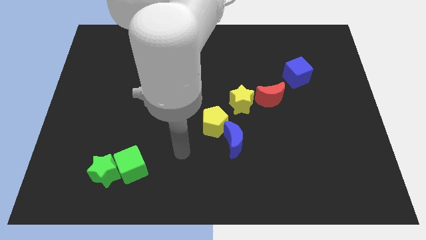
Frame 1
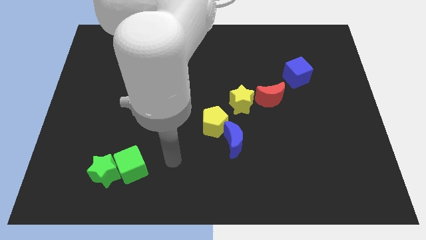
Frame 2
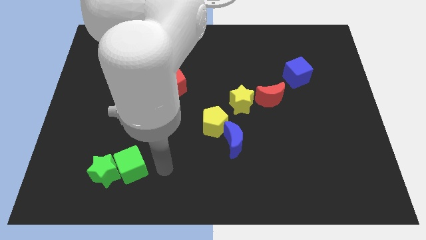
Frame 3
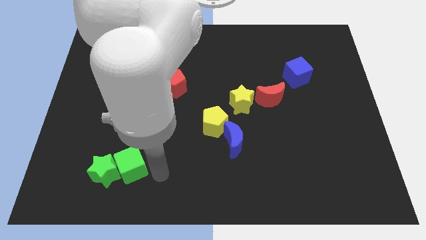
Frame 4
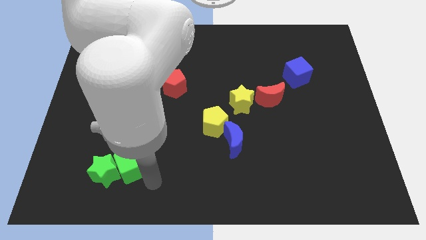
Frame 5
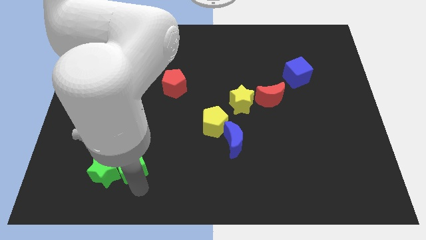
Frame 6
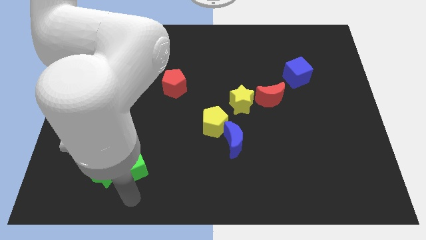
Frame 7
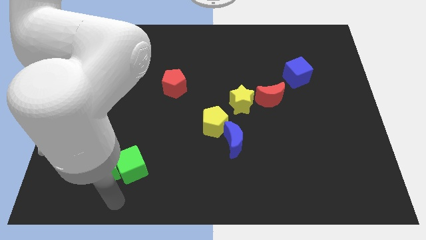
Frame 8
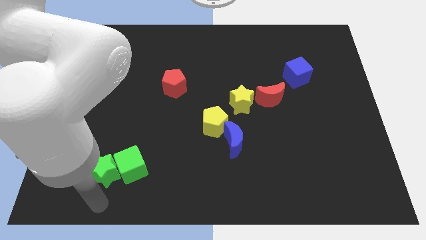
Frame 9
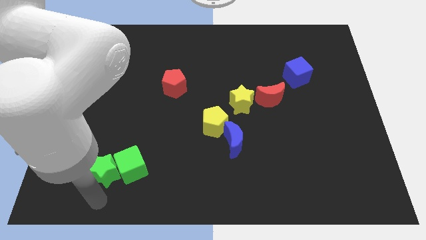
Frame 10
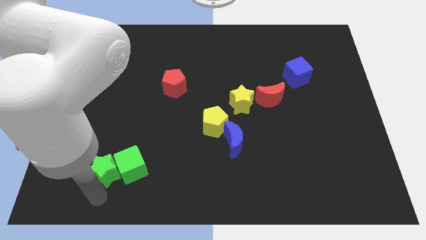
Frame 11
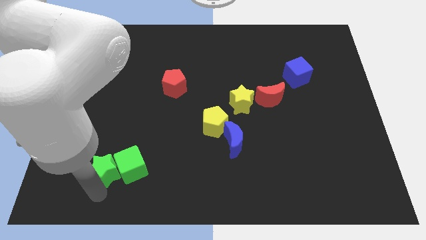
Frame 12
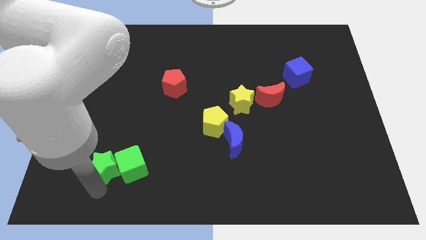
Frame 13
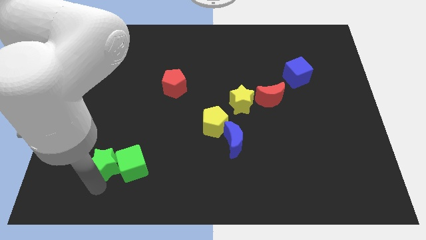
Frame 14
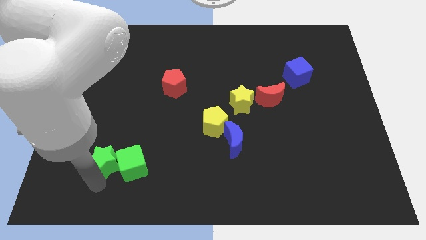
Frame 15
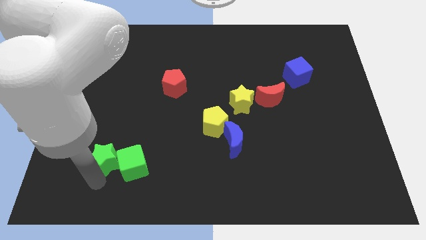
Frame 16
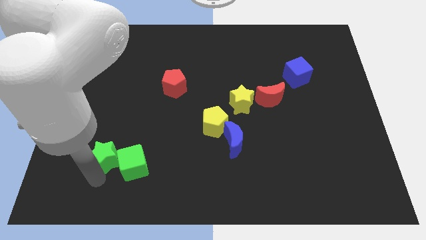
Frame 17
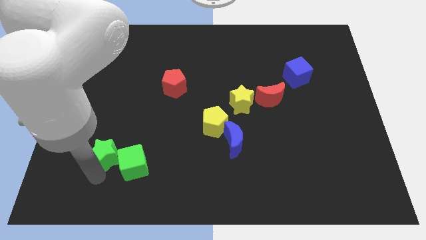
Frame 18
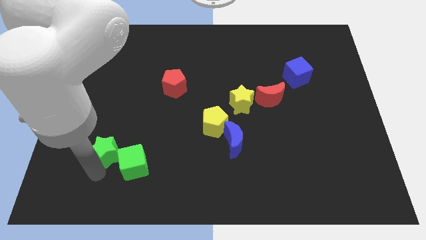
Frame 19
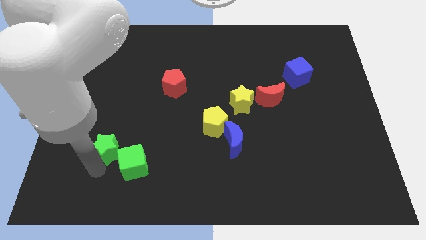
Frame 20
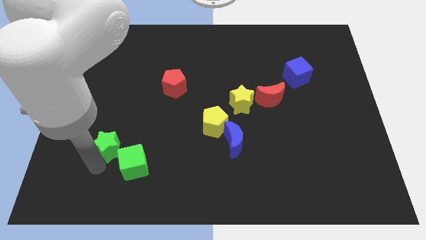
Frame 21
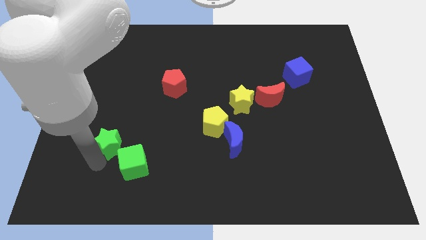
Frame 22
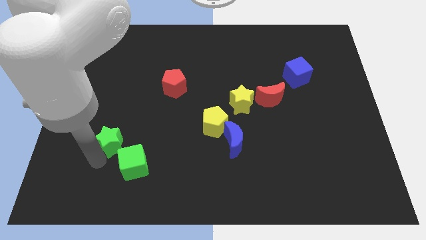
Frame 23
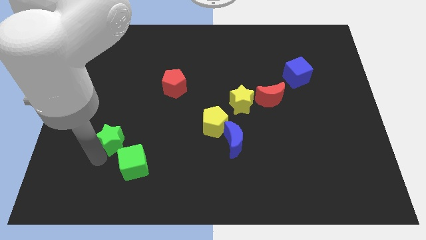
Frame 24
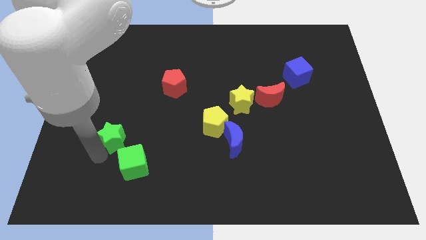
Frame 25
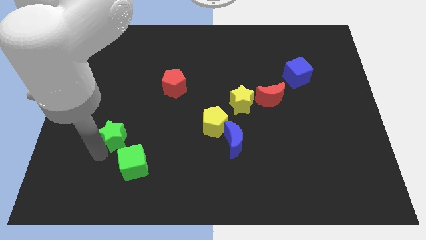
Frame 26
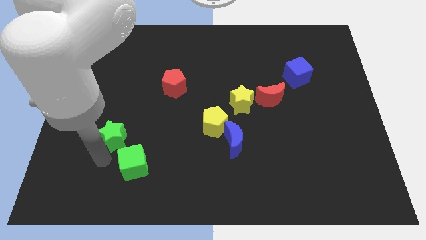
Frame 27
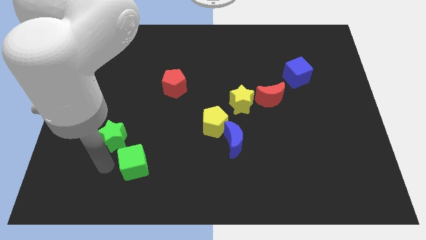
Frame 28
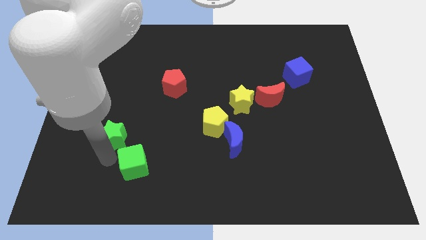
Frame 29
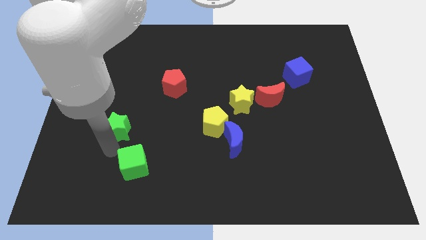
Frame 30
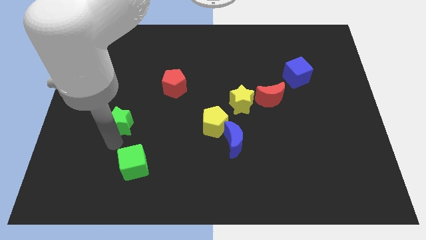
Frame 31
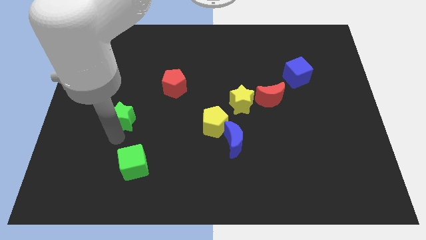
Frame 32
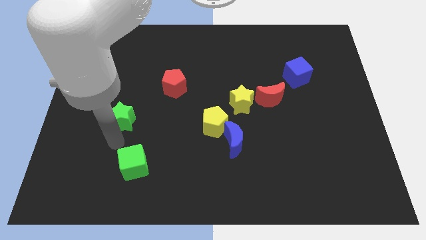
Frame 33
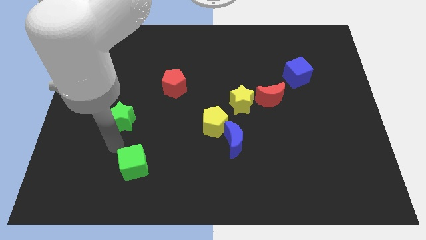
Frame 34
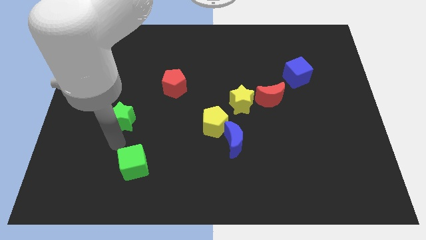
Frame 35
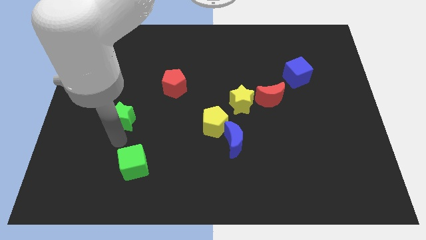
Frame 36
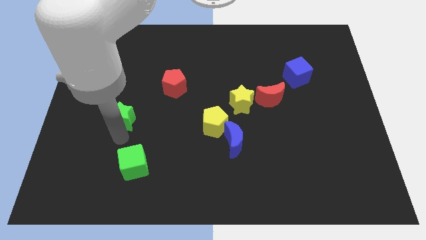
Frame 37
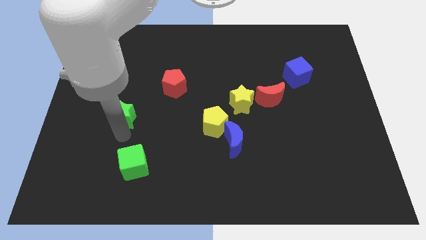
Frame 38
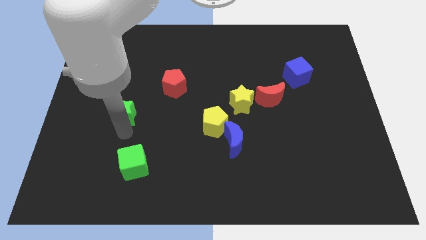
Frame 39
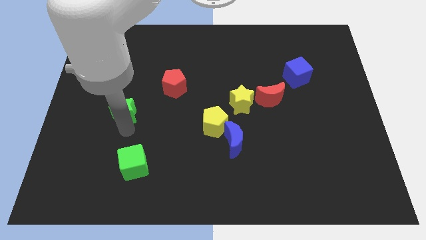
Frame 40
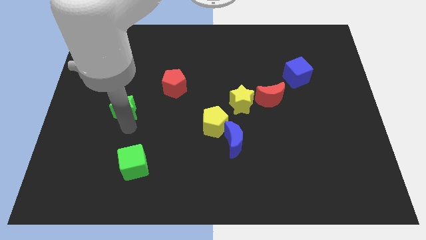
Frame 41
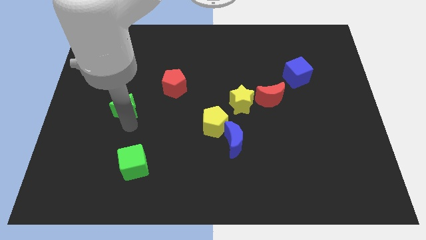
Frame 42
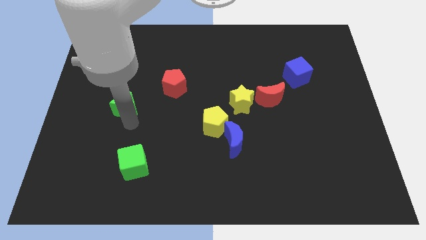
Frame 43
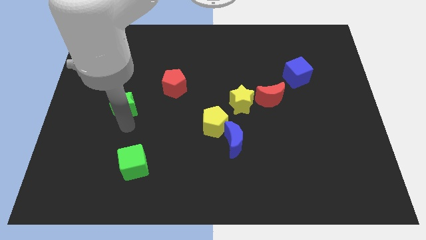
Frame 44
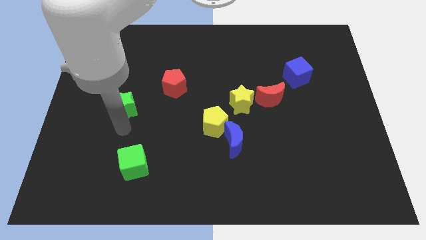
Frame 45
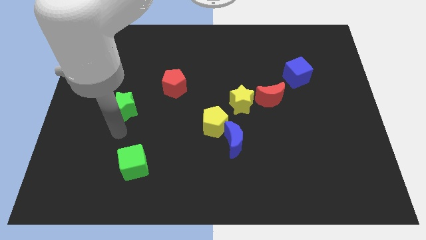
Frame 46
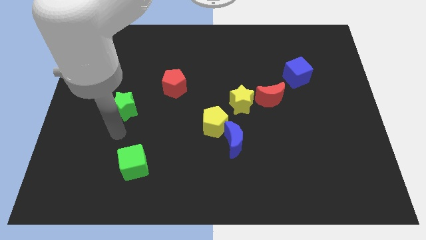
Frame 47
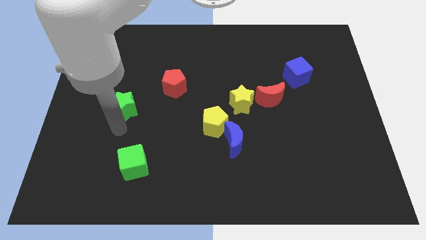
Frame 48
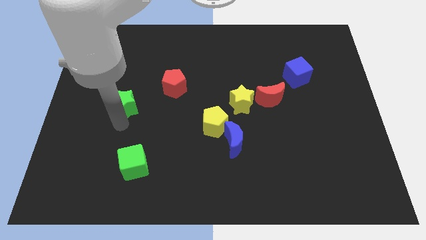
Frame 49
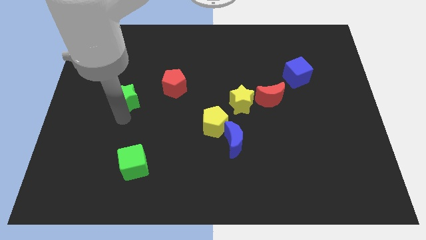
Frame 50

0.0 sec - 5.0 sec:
push the green star just left of the red pentagon

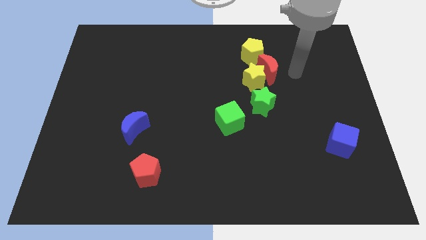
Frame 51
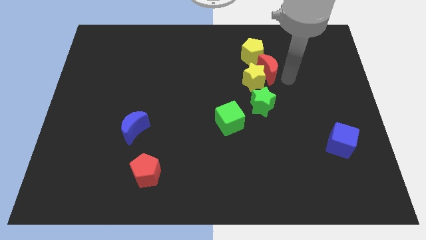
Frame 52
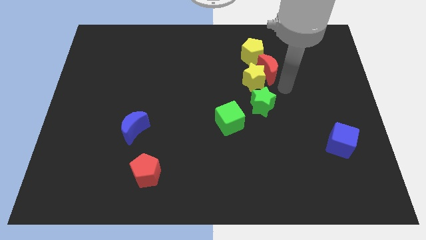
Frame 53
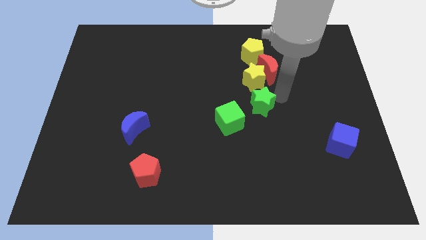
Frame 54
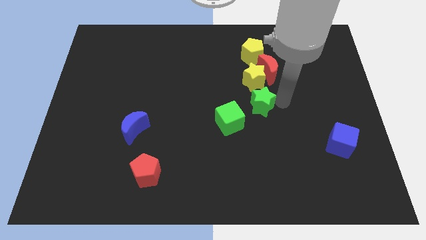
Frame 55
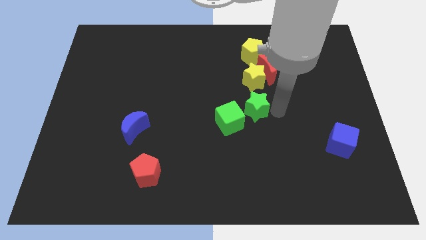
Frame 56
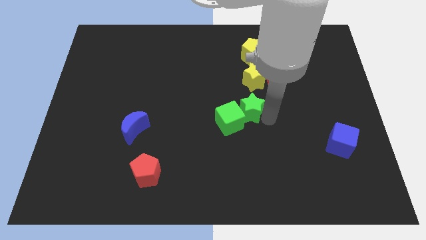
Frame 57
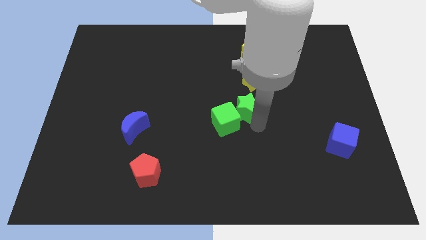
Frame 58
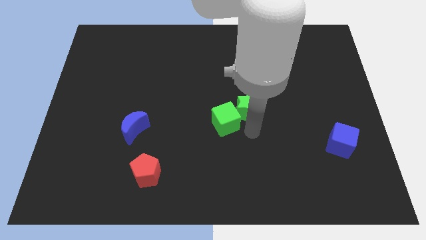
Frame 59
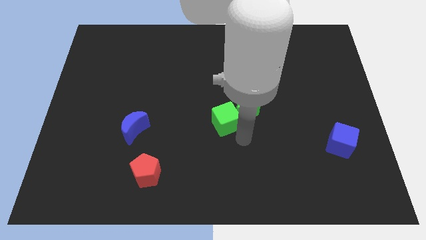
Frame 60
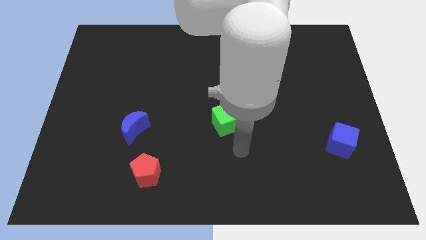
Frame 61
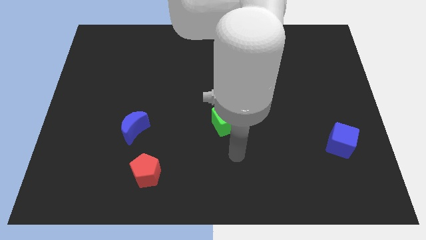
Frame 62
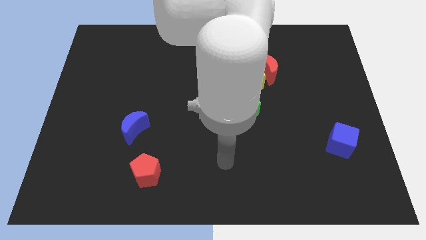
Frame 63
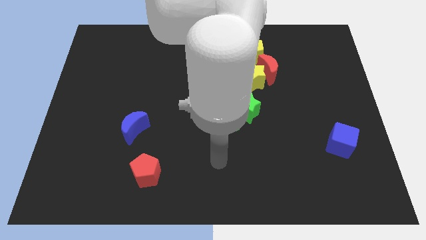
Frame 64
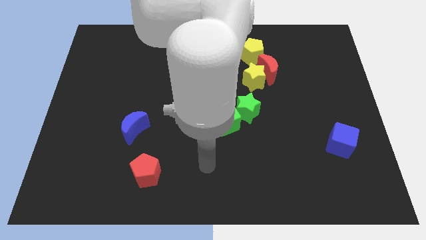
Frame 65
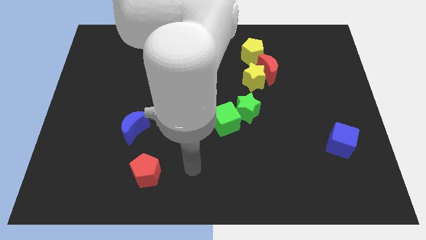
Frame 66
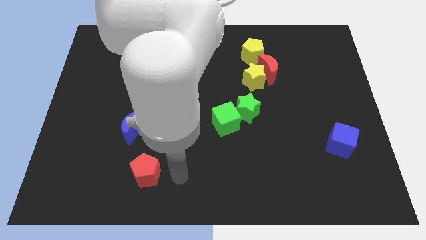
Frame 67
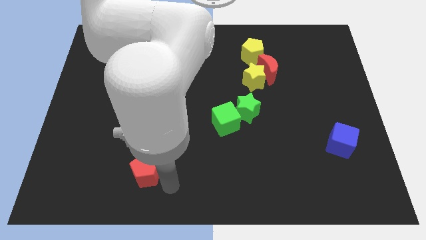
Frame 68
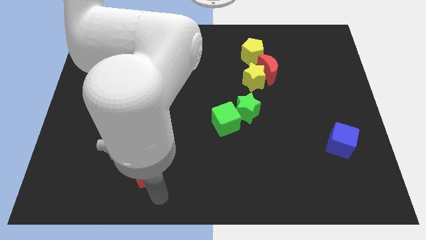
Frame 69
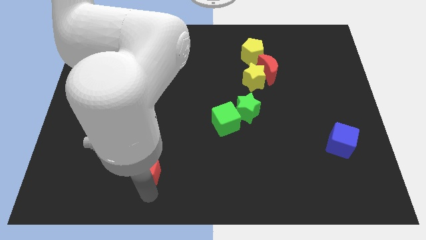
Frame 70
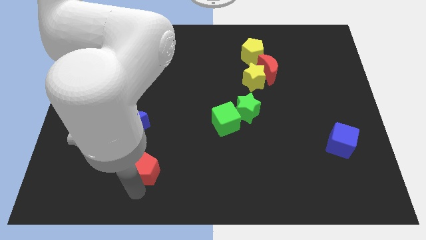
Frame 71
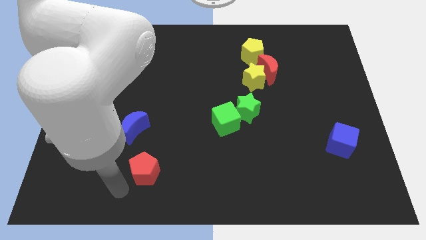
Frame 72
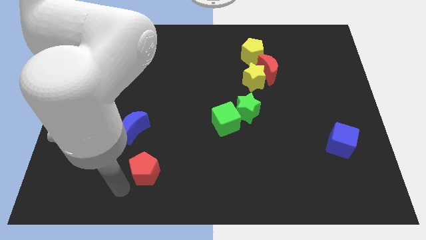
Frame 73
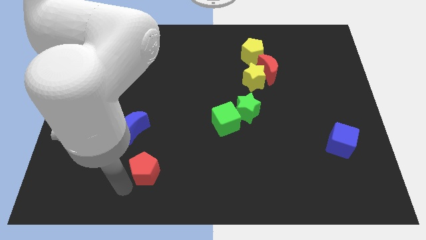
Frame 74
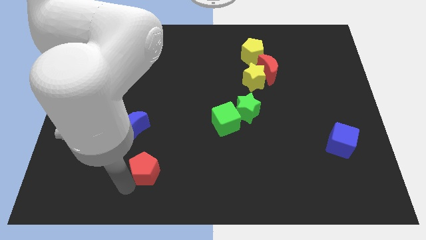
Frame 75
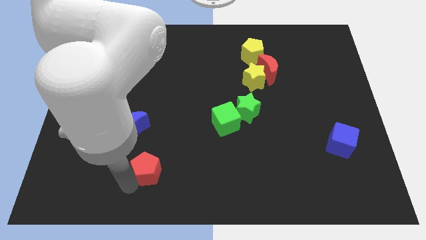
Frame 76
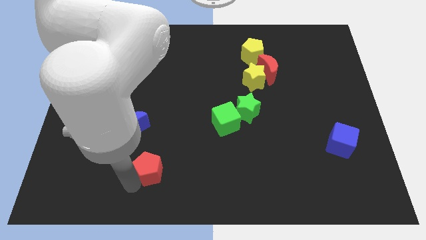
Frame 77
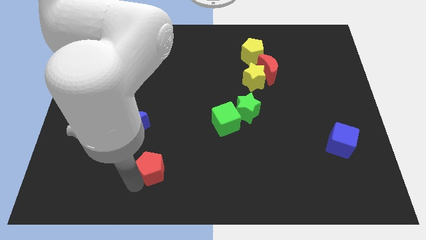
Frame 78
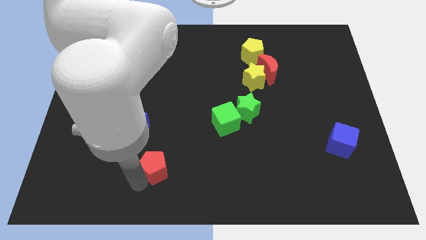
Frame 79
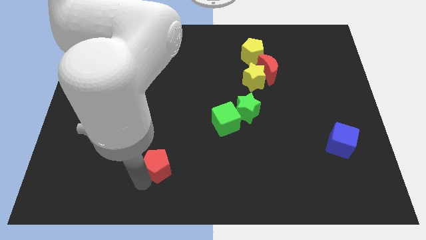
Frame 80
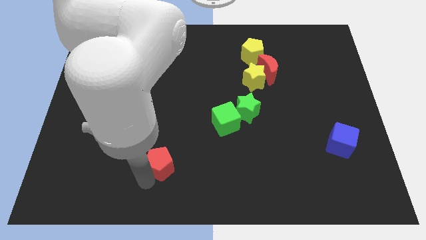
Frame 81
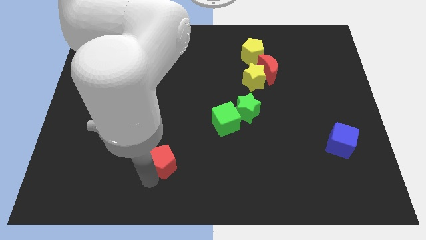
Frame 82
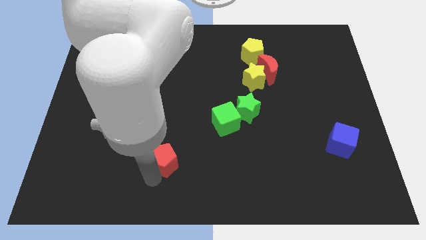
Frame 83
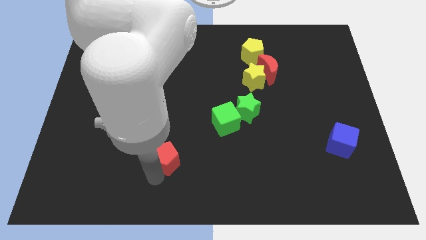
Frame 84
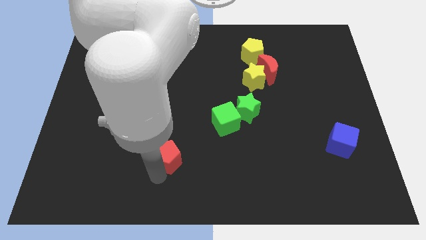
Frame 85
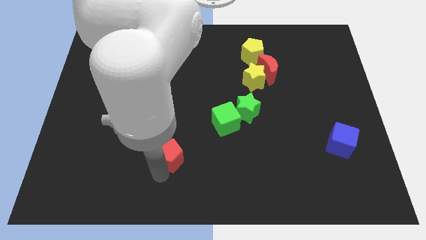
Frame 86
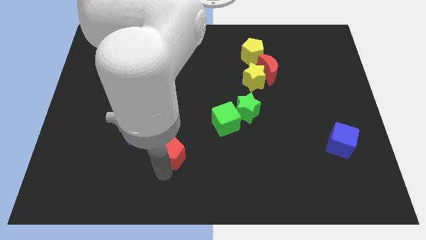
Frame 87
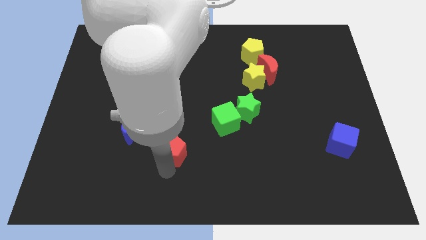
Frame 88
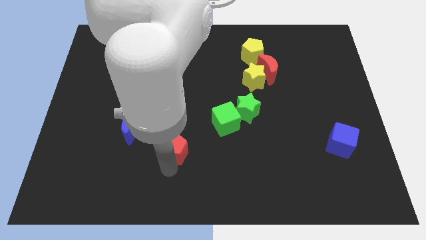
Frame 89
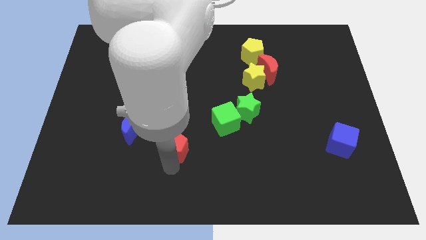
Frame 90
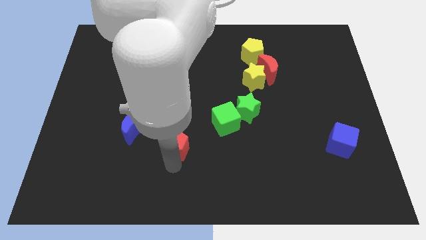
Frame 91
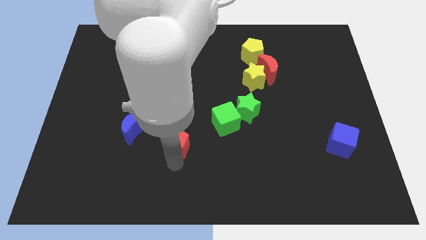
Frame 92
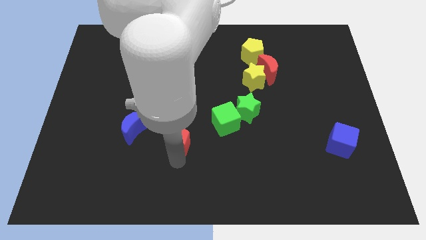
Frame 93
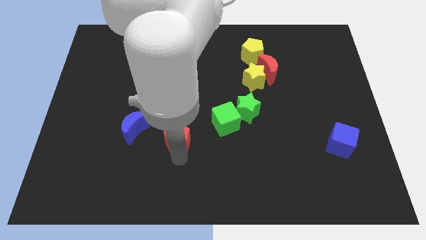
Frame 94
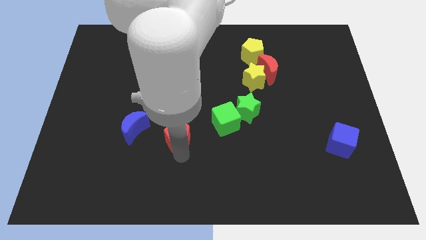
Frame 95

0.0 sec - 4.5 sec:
put the red pentagon to the left of the green cube
